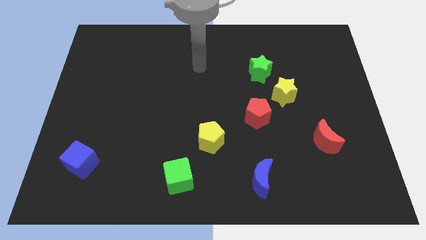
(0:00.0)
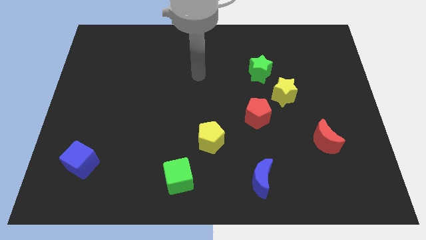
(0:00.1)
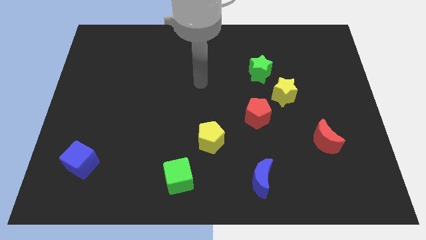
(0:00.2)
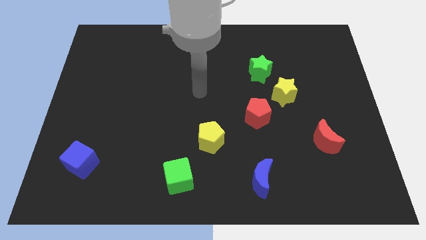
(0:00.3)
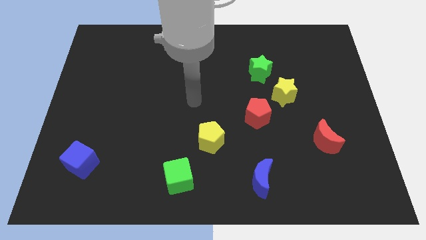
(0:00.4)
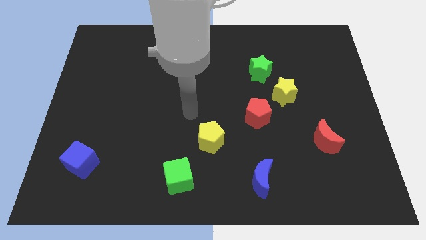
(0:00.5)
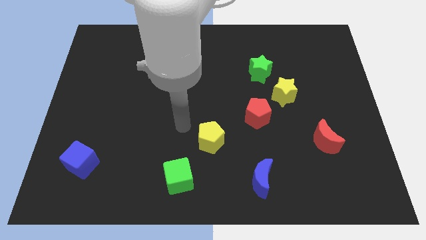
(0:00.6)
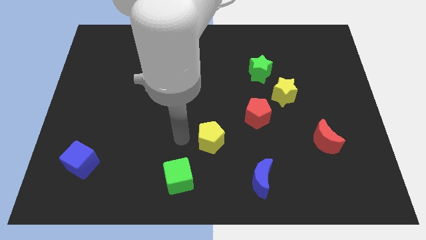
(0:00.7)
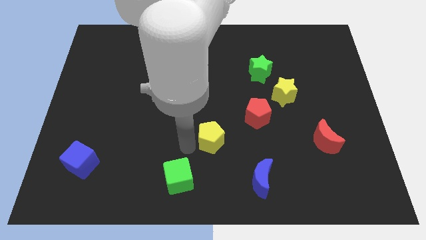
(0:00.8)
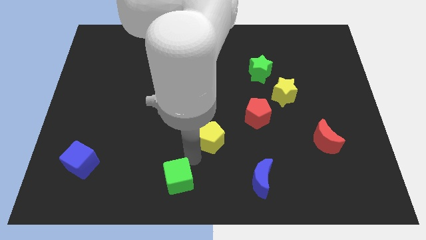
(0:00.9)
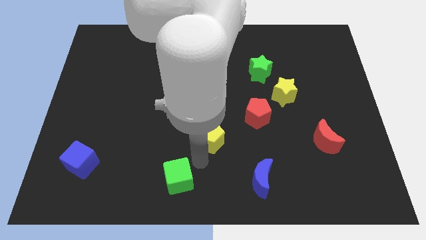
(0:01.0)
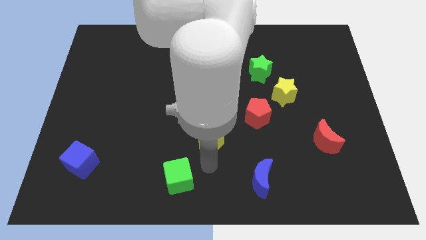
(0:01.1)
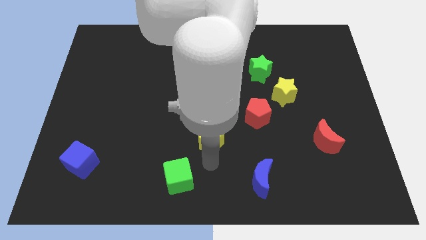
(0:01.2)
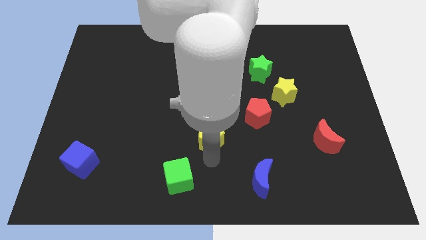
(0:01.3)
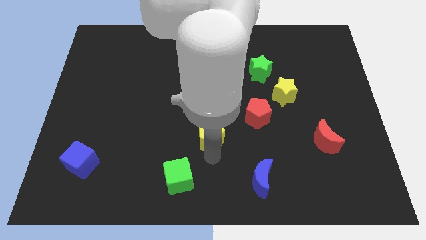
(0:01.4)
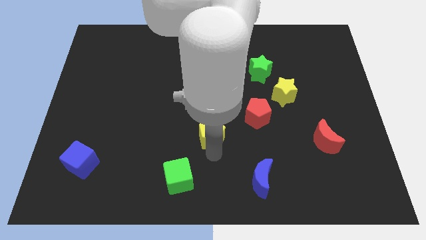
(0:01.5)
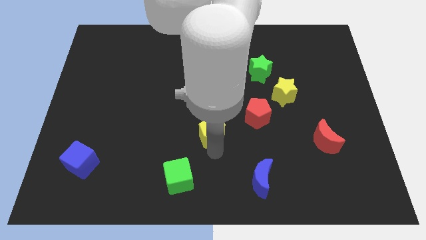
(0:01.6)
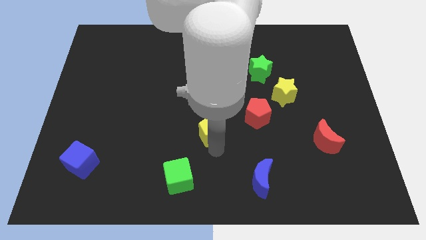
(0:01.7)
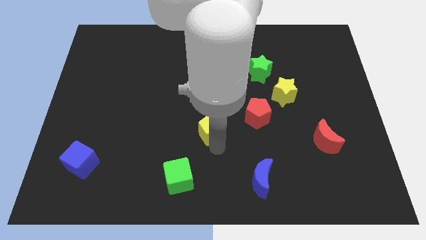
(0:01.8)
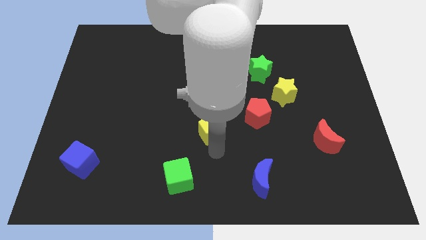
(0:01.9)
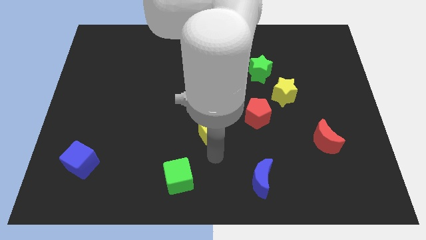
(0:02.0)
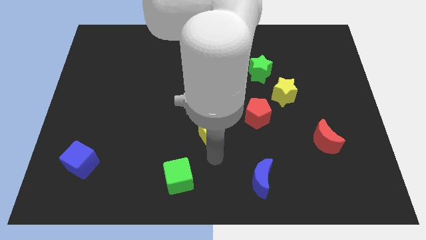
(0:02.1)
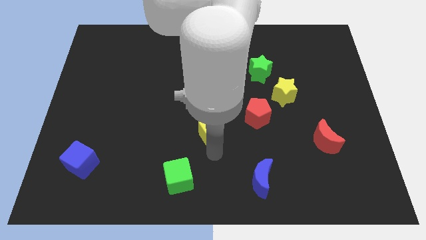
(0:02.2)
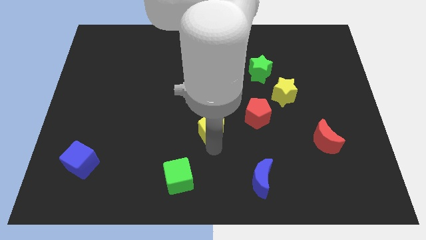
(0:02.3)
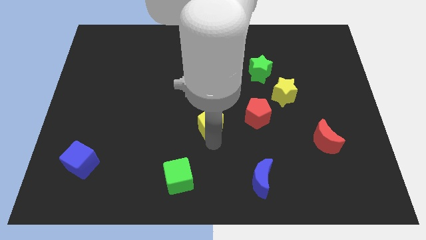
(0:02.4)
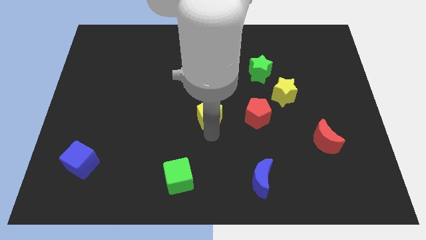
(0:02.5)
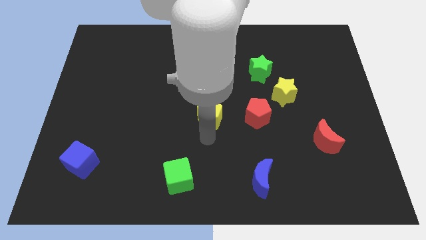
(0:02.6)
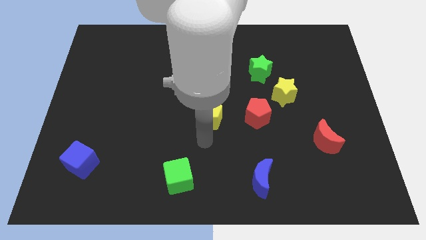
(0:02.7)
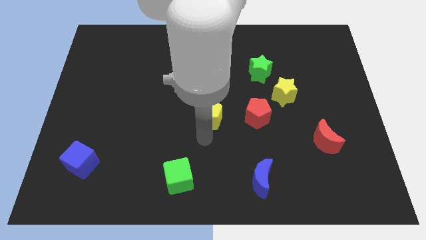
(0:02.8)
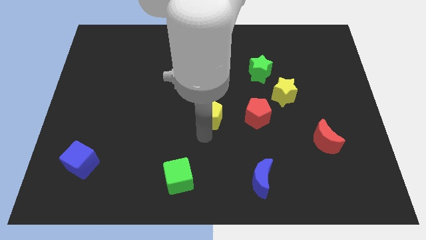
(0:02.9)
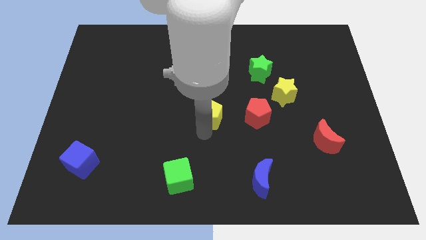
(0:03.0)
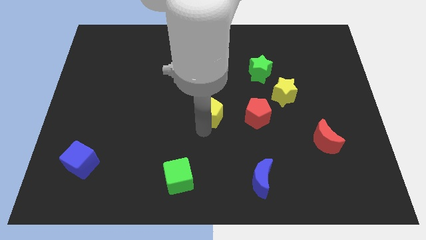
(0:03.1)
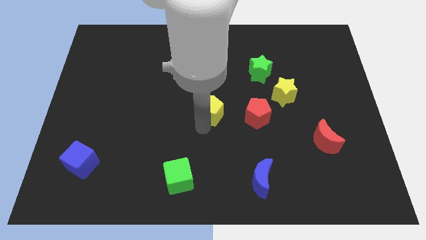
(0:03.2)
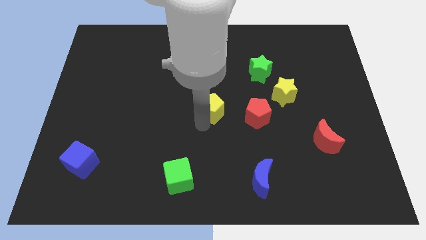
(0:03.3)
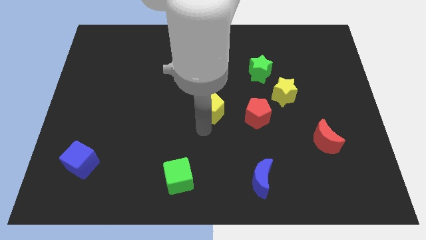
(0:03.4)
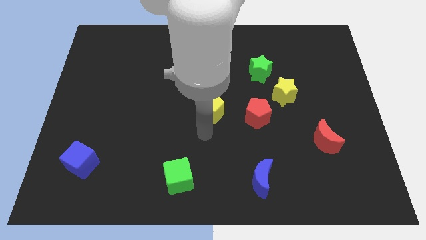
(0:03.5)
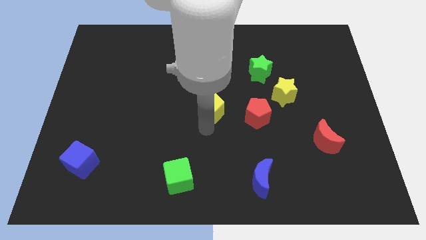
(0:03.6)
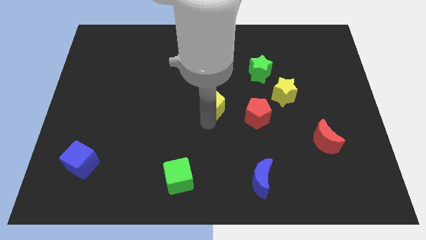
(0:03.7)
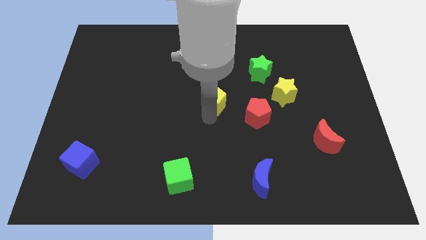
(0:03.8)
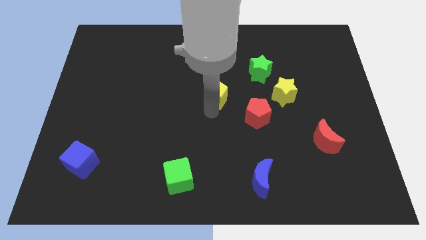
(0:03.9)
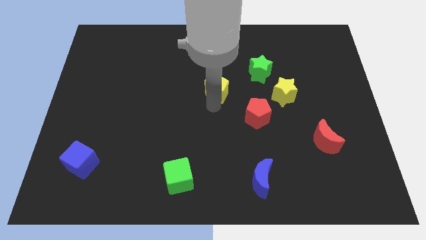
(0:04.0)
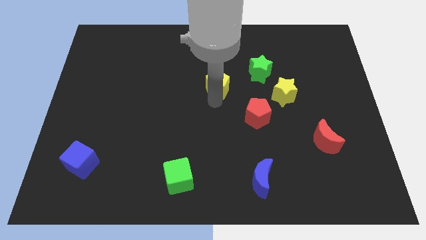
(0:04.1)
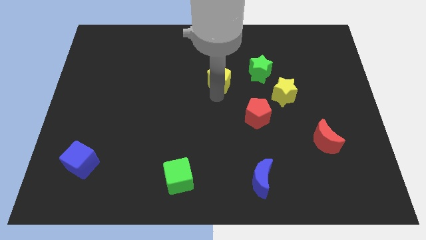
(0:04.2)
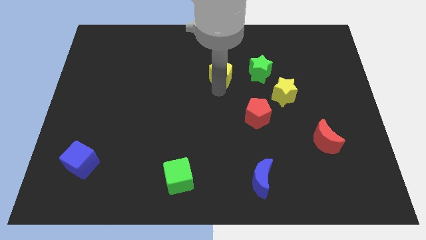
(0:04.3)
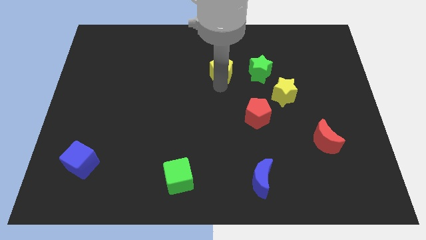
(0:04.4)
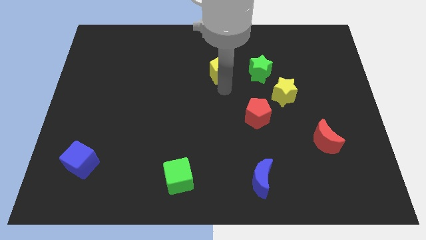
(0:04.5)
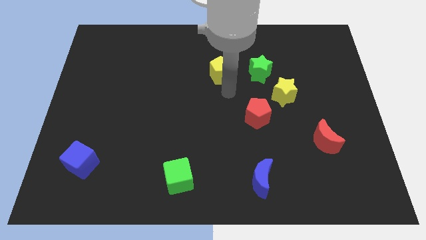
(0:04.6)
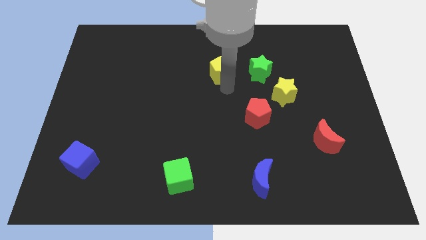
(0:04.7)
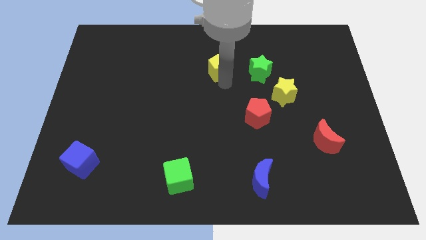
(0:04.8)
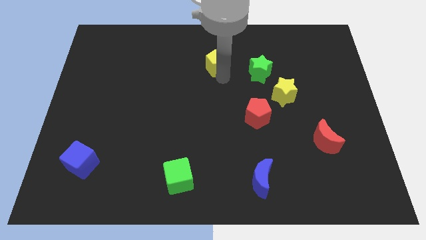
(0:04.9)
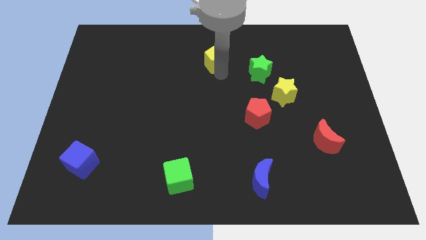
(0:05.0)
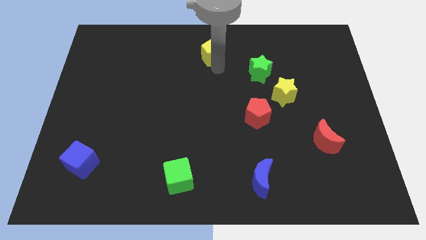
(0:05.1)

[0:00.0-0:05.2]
move the yellow pentagon to the top side

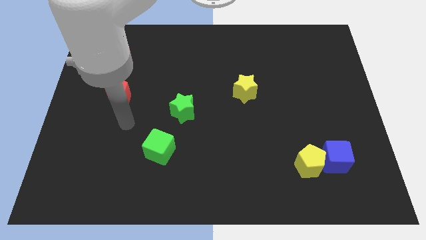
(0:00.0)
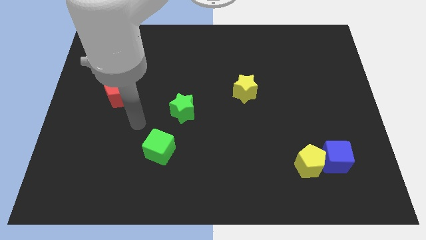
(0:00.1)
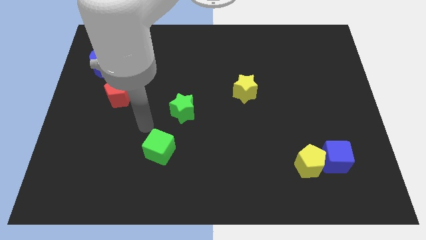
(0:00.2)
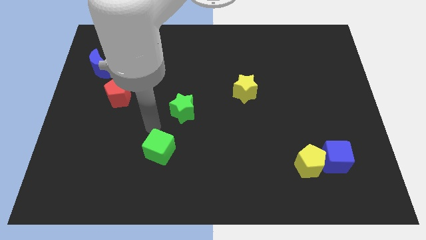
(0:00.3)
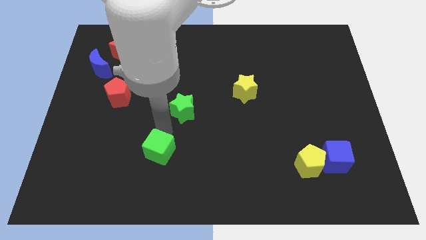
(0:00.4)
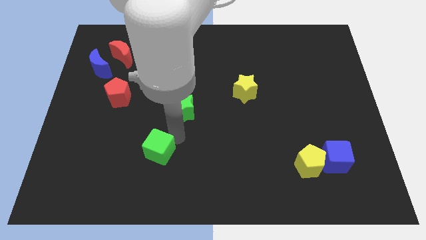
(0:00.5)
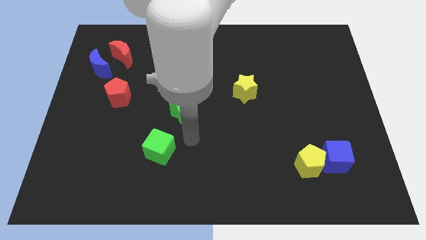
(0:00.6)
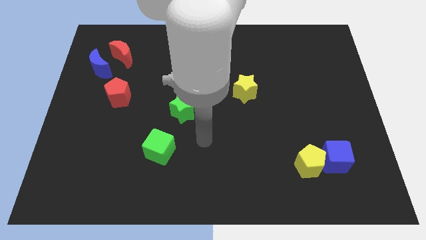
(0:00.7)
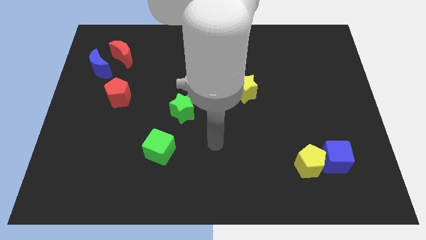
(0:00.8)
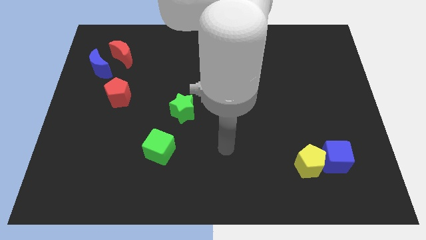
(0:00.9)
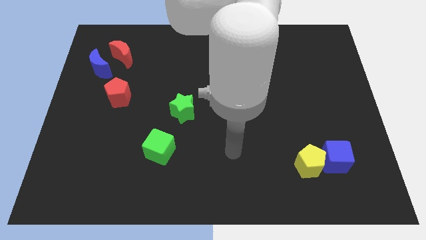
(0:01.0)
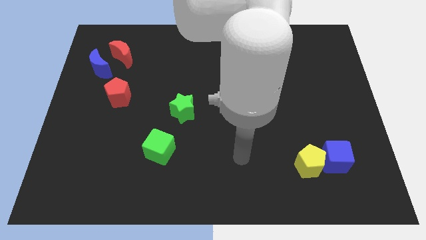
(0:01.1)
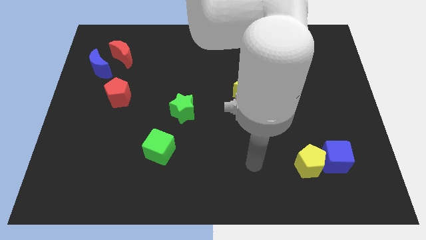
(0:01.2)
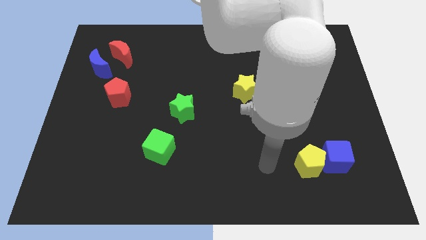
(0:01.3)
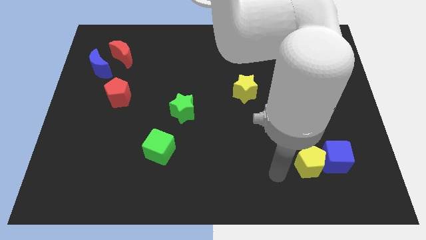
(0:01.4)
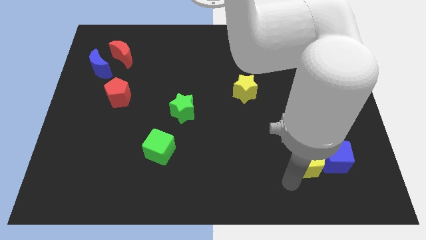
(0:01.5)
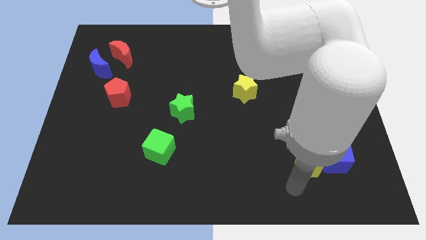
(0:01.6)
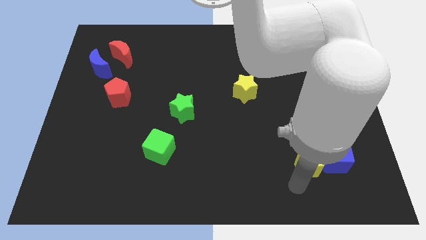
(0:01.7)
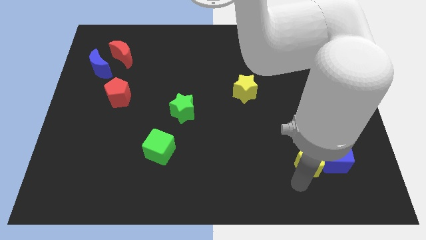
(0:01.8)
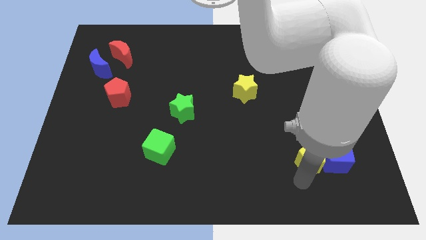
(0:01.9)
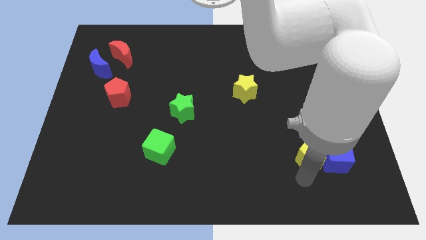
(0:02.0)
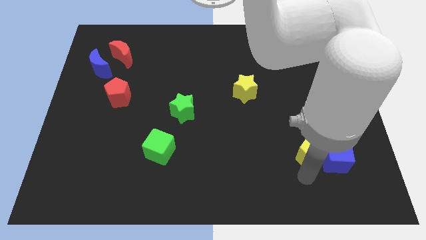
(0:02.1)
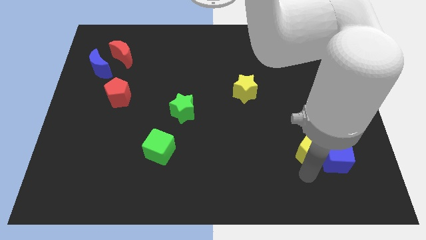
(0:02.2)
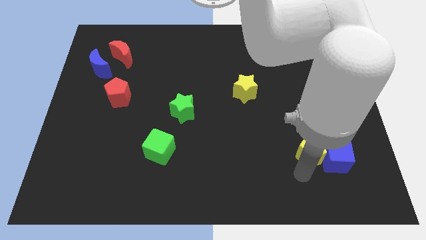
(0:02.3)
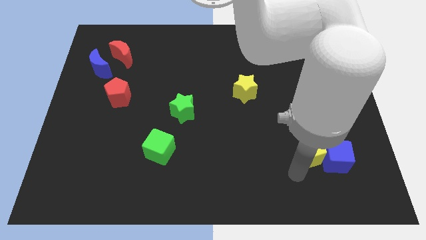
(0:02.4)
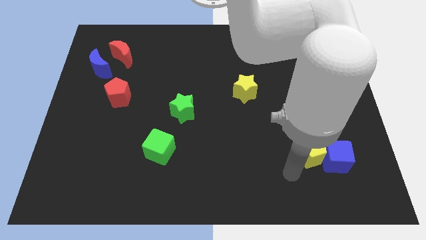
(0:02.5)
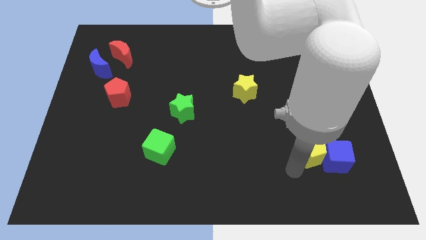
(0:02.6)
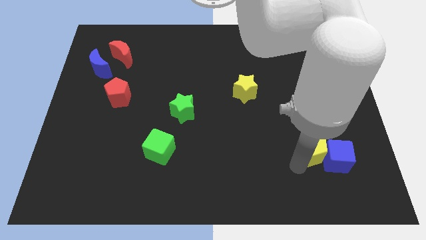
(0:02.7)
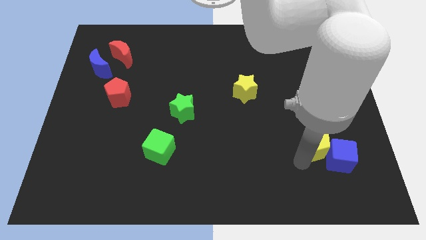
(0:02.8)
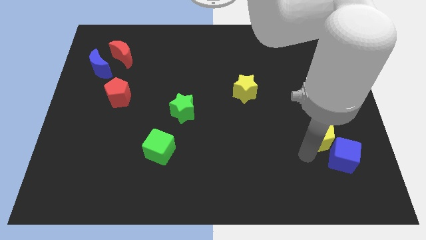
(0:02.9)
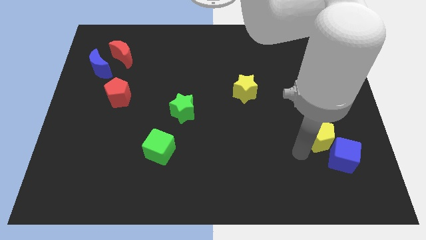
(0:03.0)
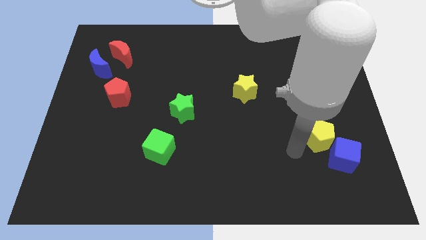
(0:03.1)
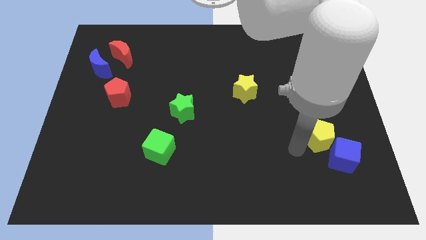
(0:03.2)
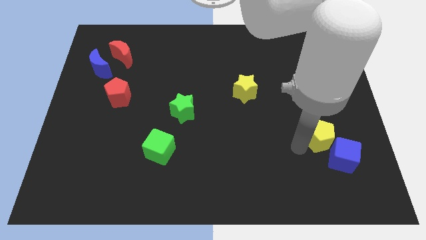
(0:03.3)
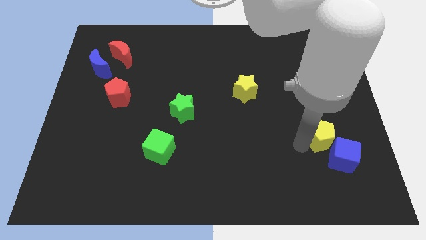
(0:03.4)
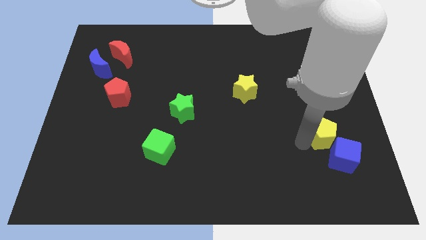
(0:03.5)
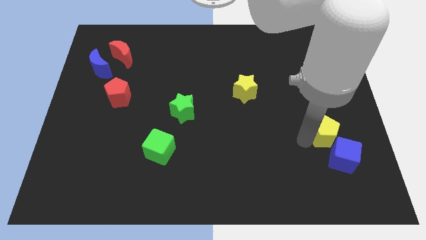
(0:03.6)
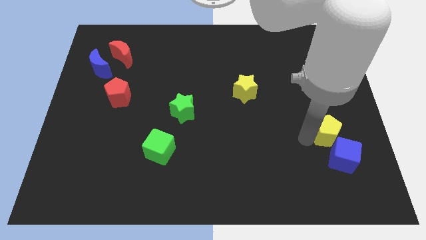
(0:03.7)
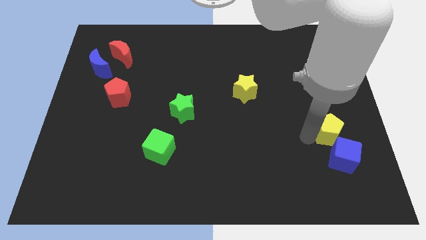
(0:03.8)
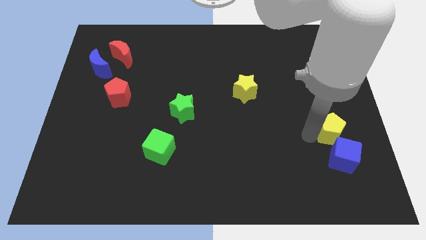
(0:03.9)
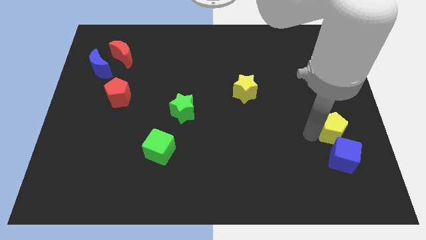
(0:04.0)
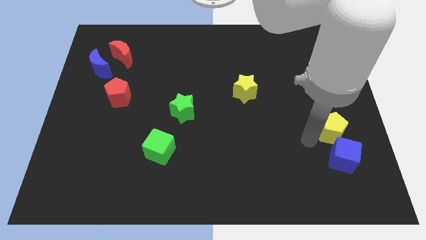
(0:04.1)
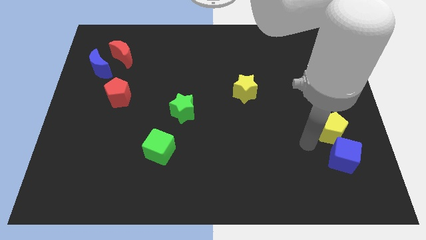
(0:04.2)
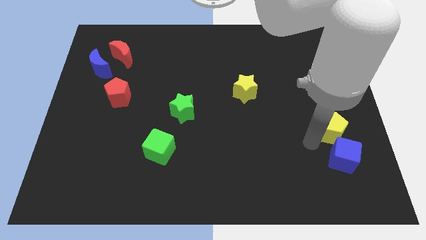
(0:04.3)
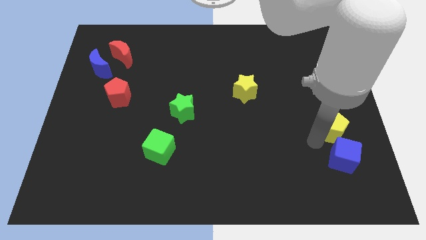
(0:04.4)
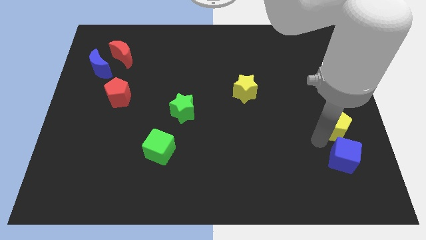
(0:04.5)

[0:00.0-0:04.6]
put the yellow pentagon to the center right
